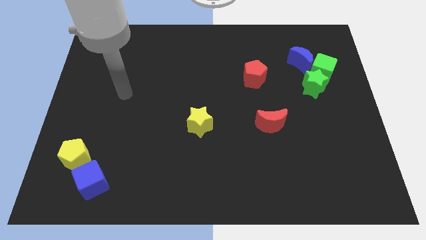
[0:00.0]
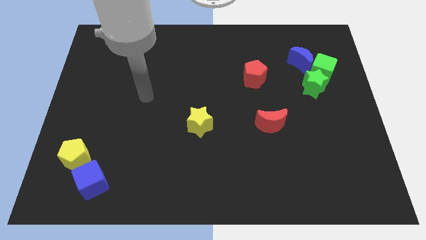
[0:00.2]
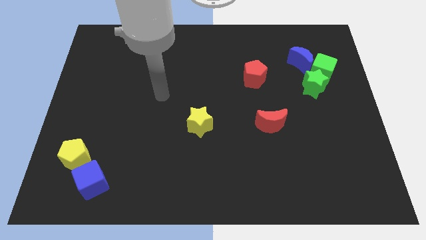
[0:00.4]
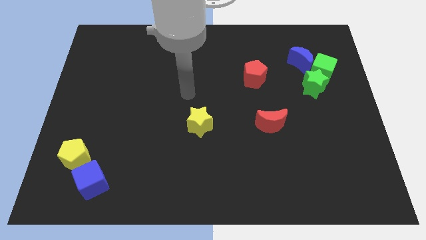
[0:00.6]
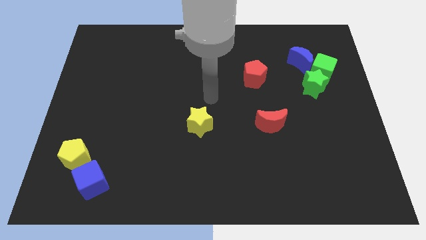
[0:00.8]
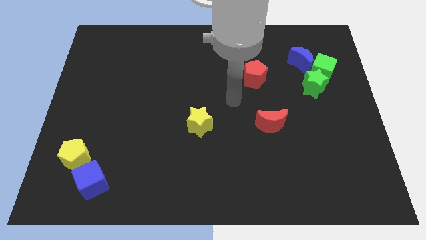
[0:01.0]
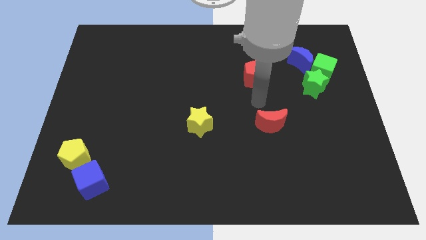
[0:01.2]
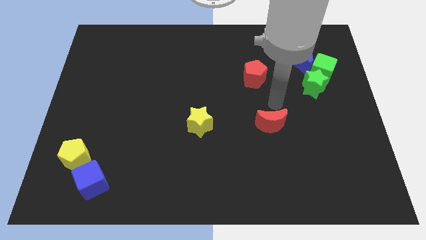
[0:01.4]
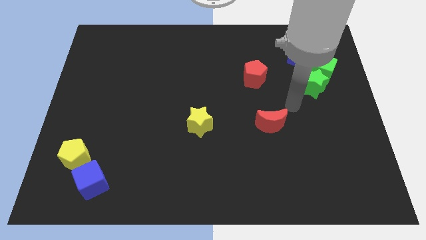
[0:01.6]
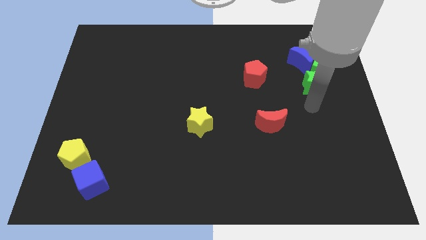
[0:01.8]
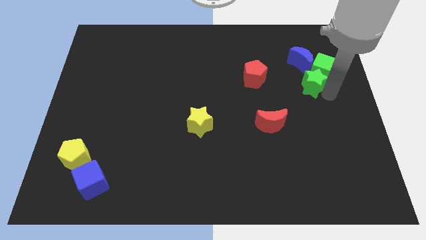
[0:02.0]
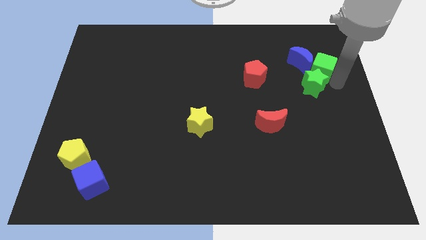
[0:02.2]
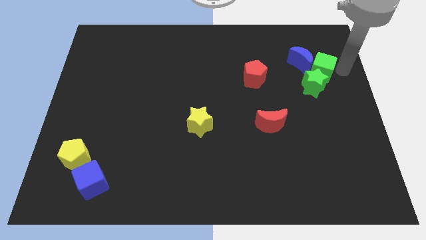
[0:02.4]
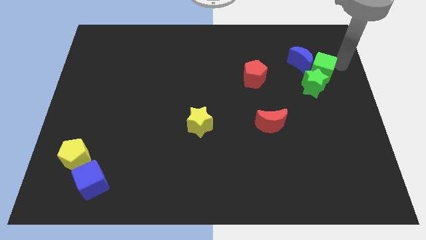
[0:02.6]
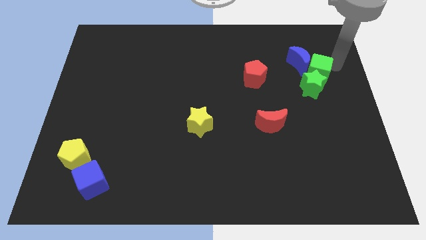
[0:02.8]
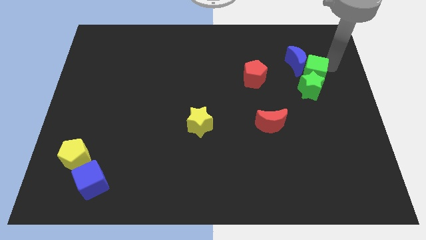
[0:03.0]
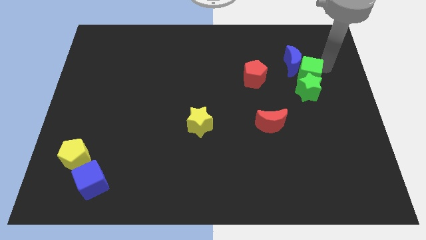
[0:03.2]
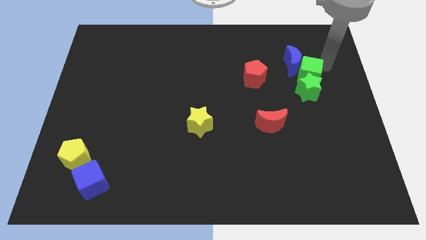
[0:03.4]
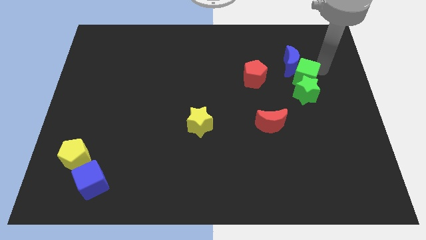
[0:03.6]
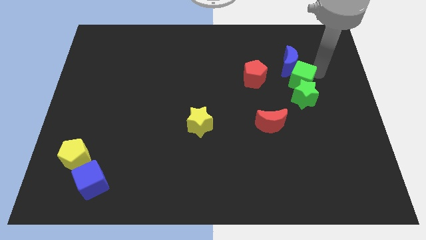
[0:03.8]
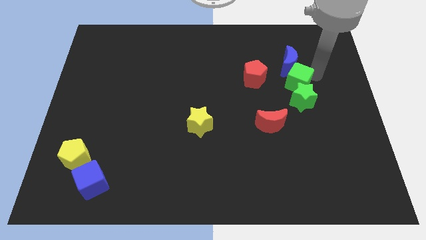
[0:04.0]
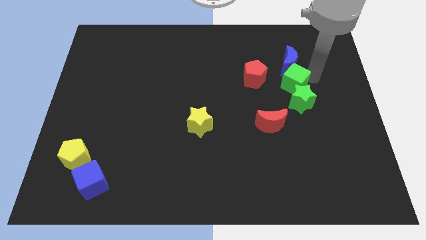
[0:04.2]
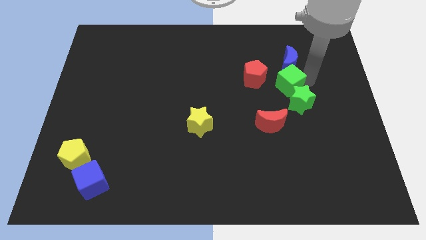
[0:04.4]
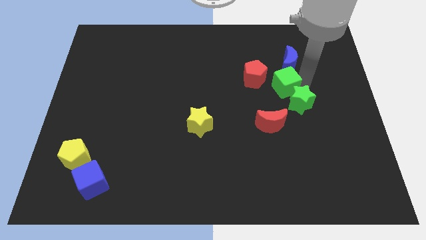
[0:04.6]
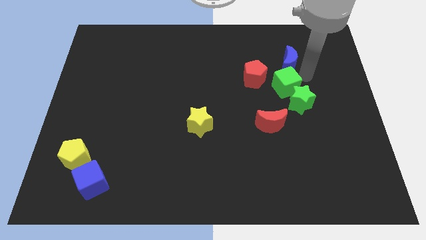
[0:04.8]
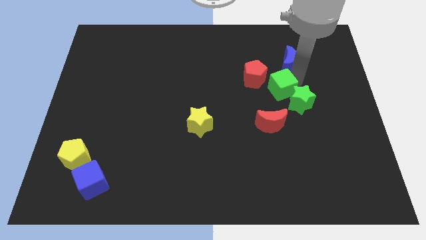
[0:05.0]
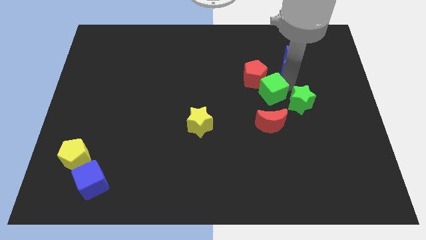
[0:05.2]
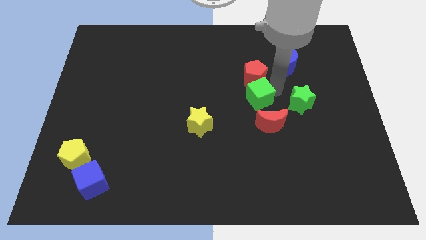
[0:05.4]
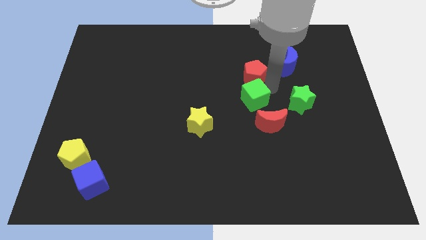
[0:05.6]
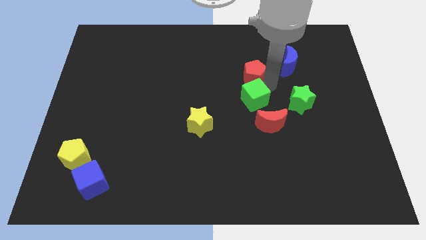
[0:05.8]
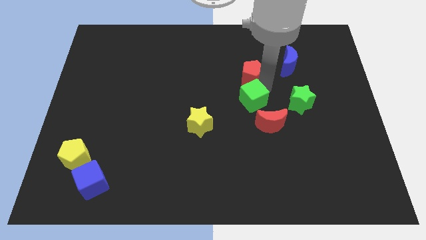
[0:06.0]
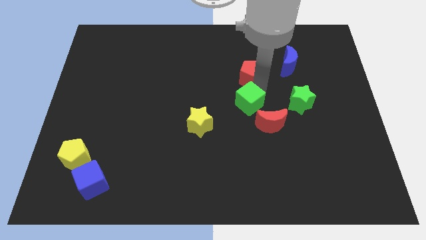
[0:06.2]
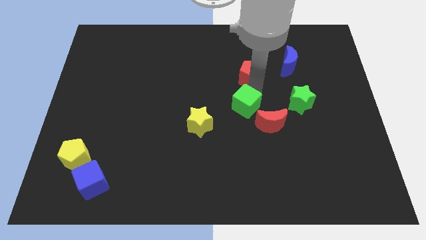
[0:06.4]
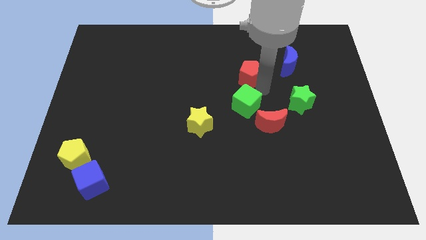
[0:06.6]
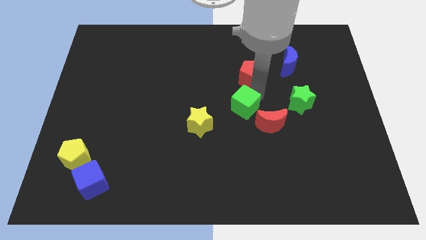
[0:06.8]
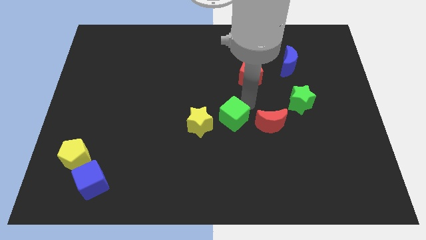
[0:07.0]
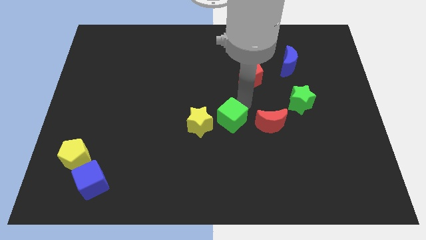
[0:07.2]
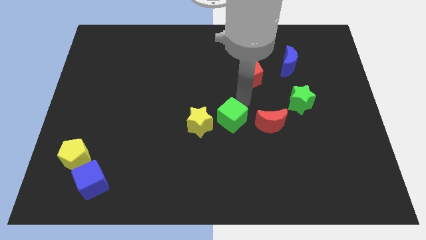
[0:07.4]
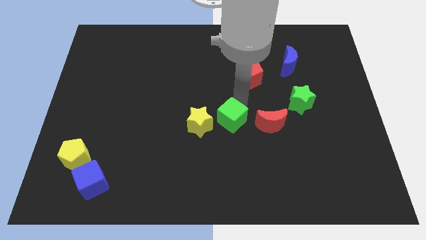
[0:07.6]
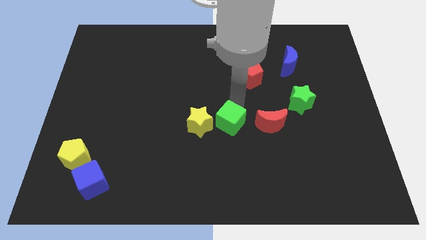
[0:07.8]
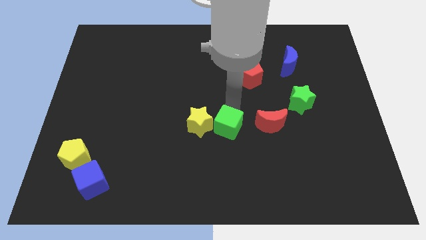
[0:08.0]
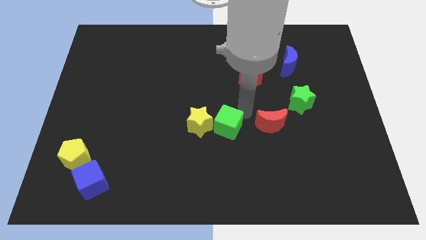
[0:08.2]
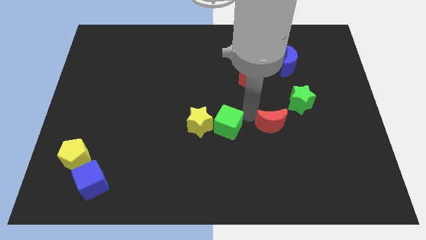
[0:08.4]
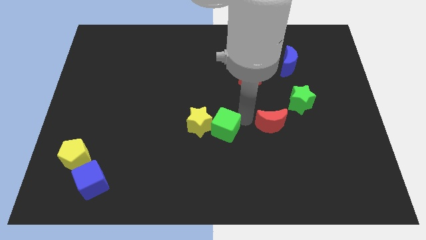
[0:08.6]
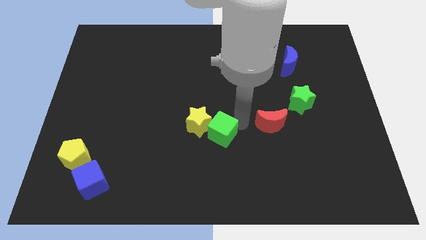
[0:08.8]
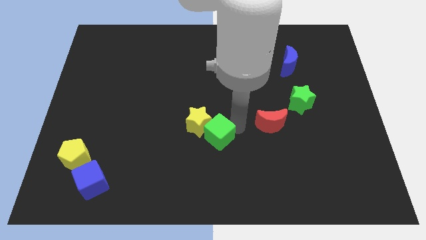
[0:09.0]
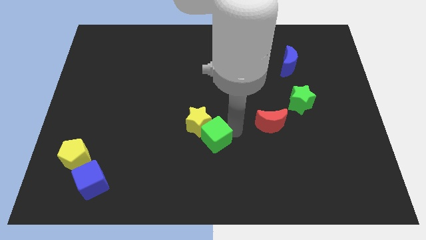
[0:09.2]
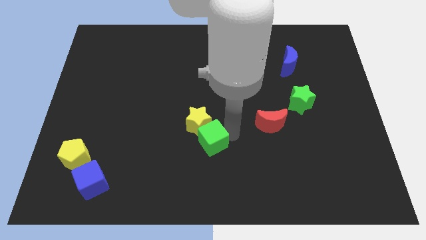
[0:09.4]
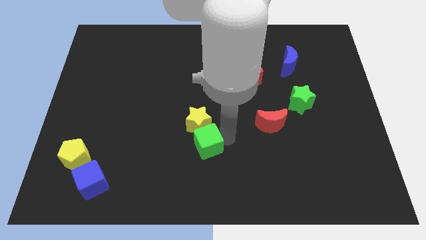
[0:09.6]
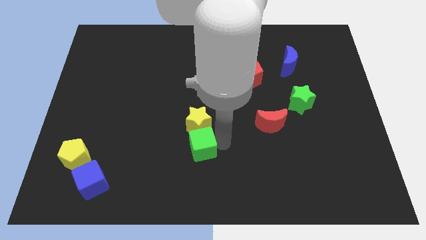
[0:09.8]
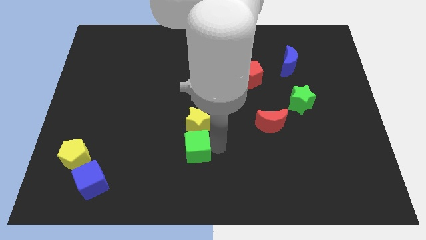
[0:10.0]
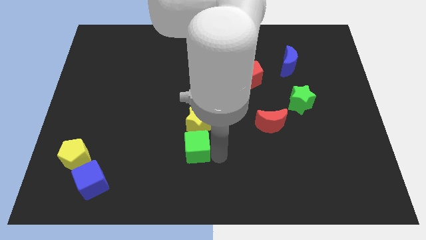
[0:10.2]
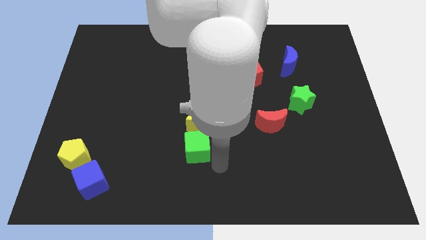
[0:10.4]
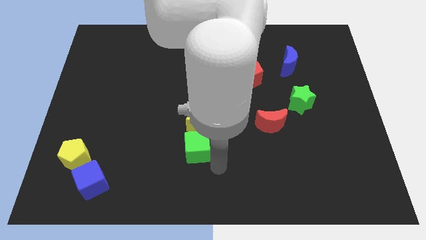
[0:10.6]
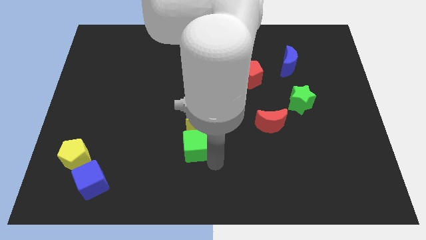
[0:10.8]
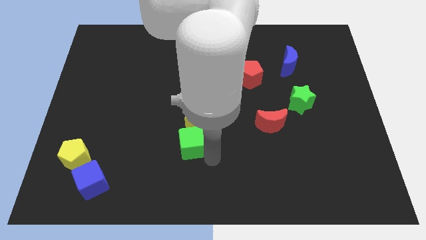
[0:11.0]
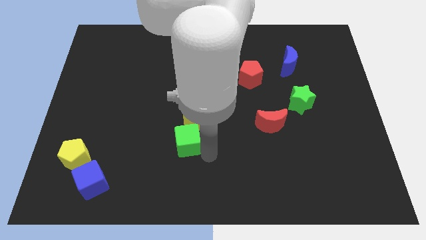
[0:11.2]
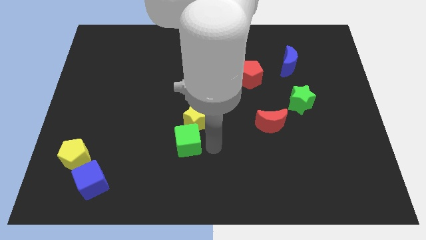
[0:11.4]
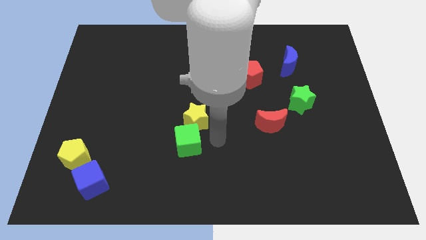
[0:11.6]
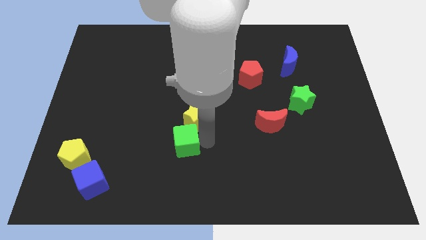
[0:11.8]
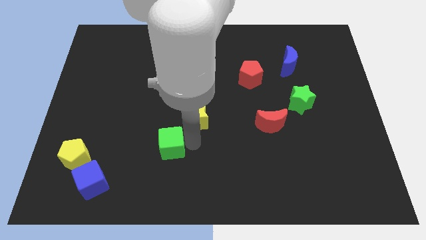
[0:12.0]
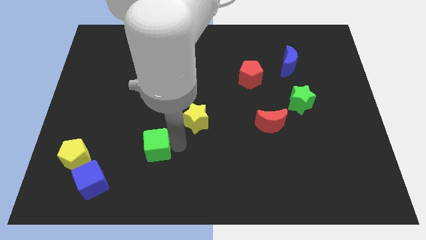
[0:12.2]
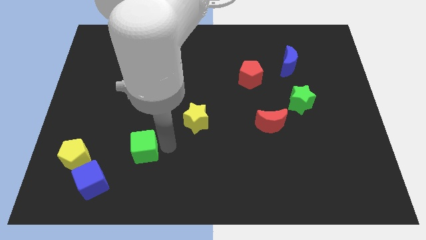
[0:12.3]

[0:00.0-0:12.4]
push the green cube to the top right side of the blue cube
